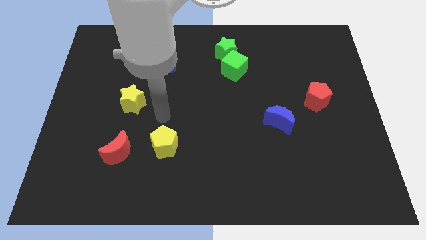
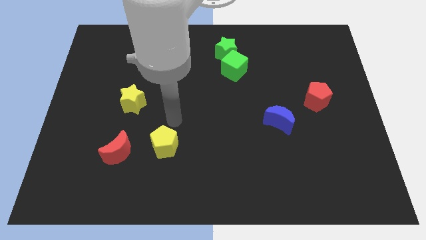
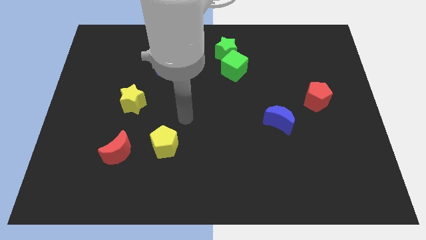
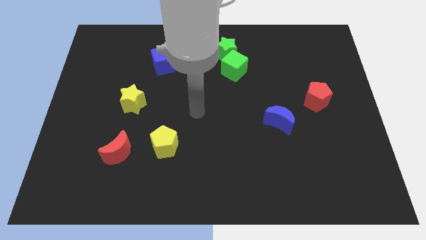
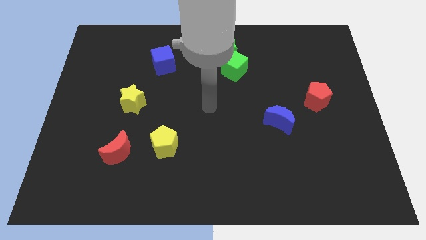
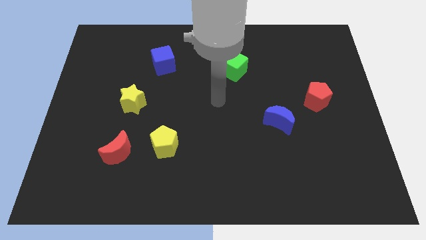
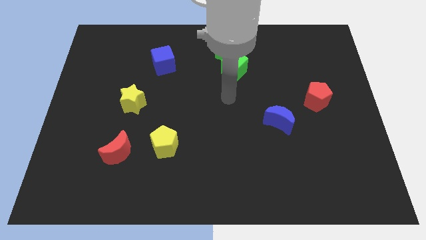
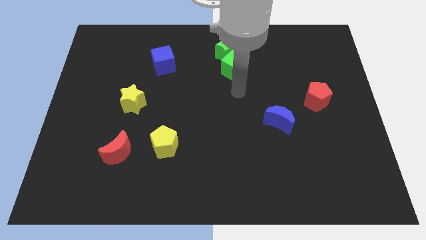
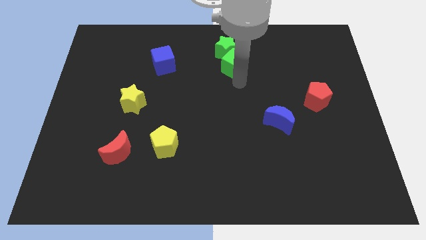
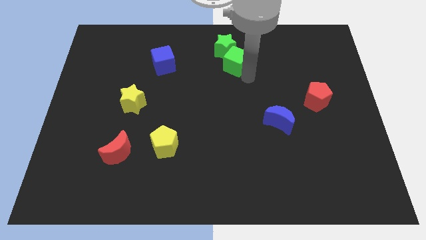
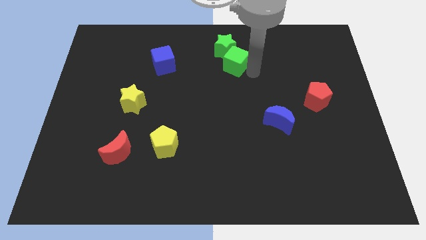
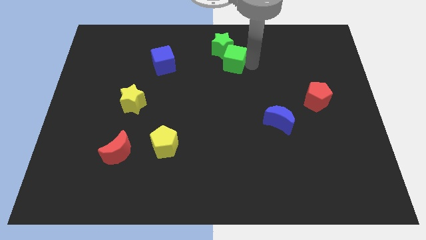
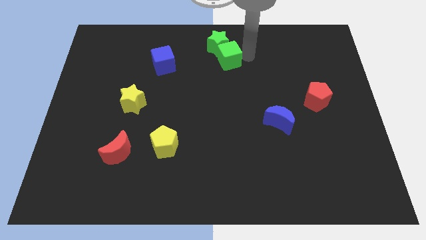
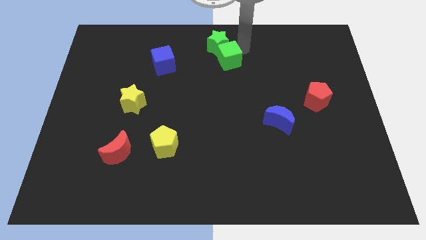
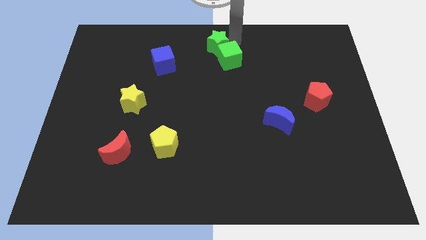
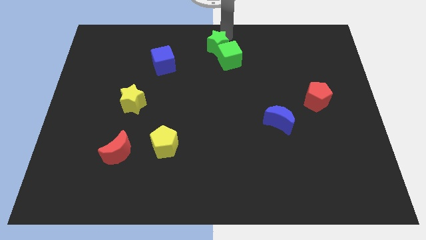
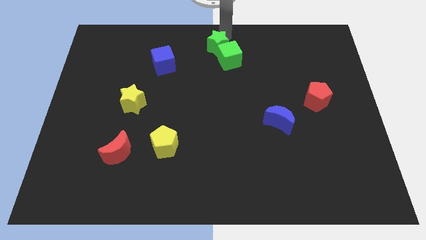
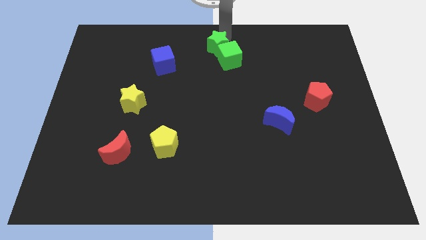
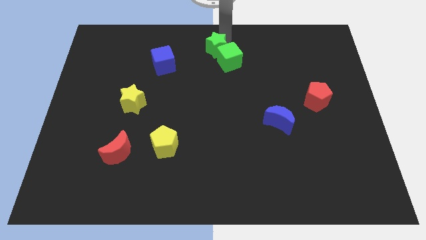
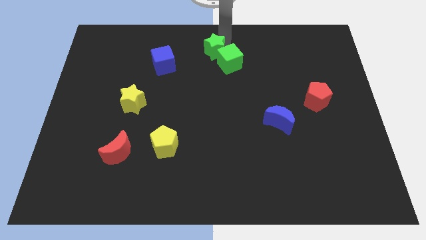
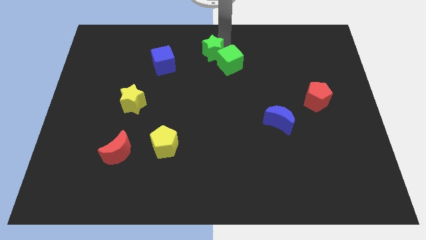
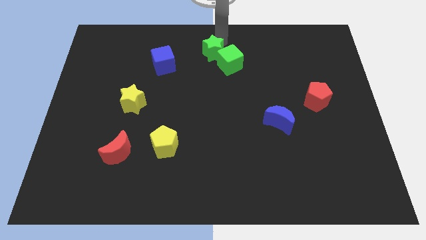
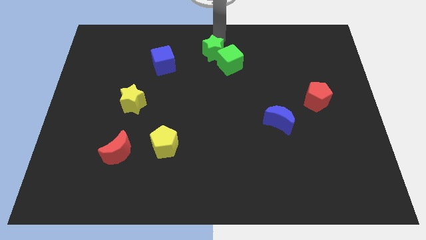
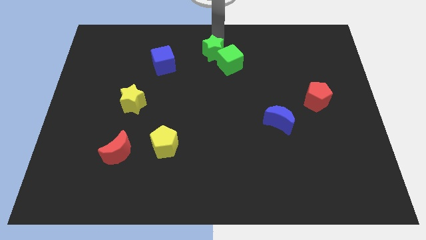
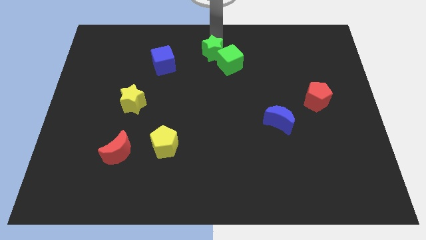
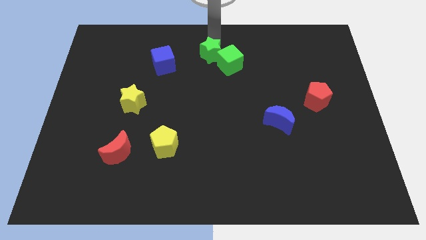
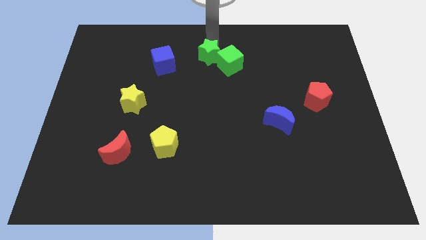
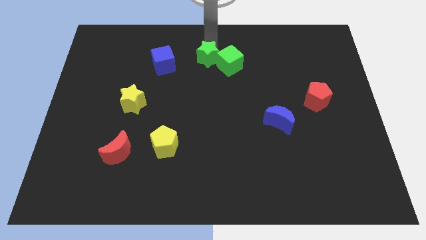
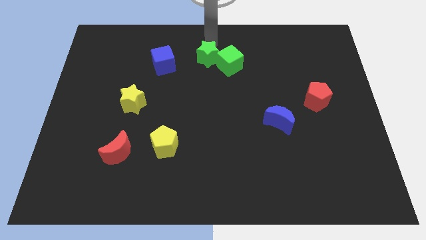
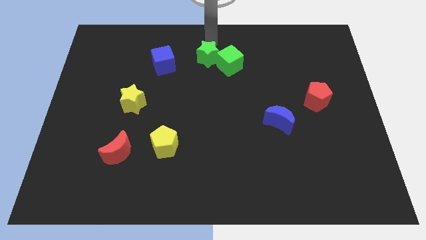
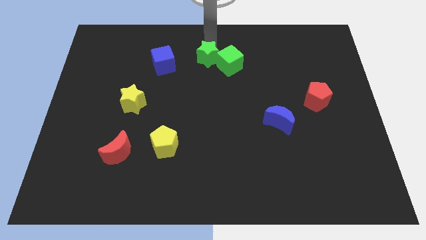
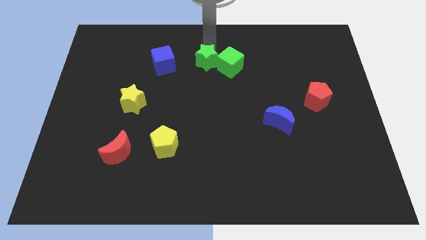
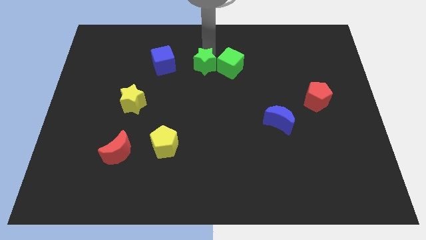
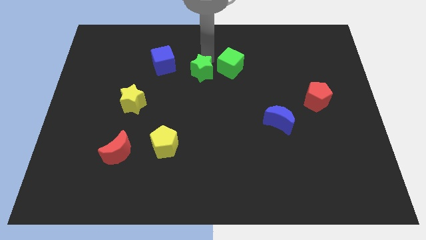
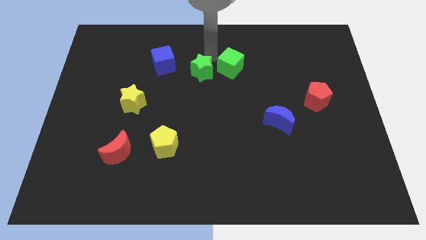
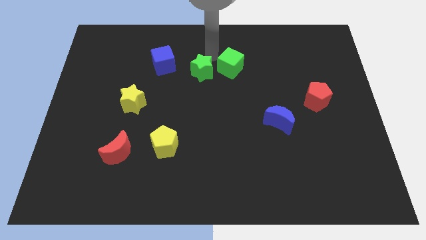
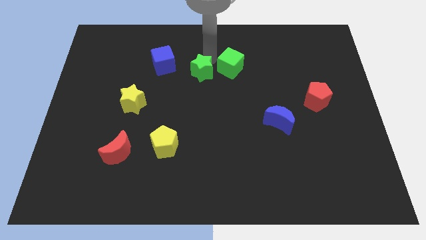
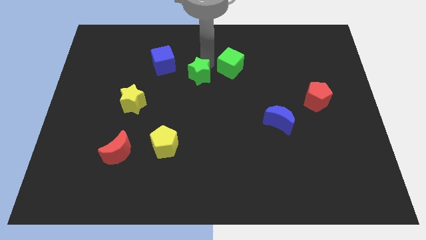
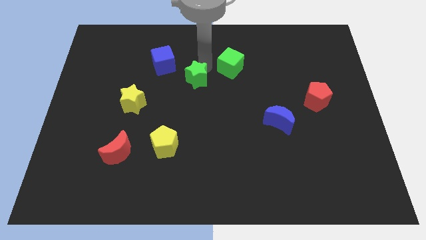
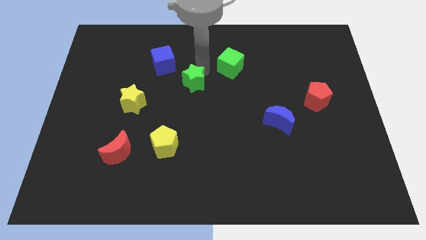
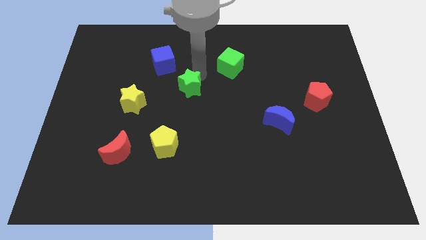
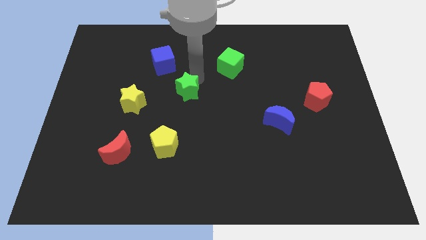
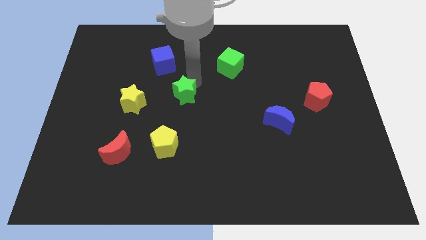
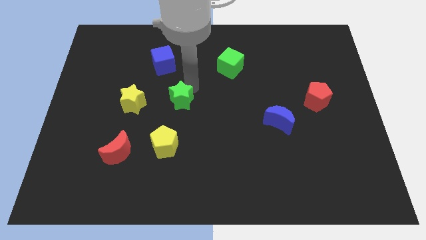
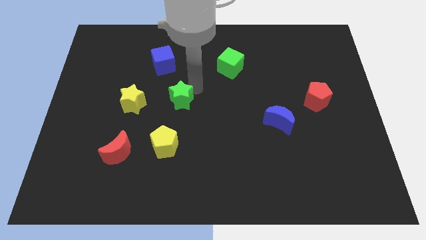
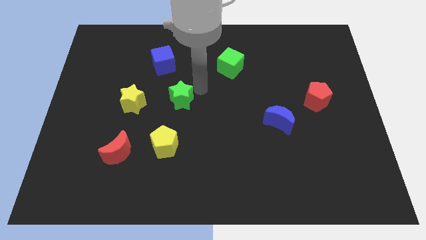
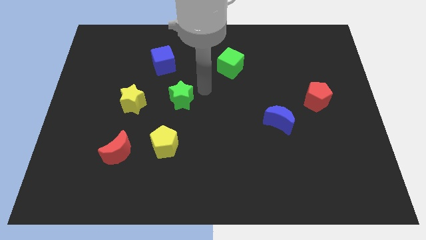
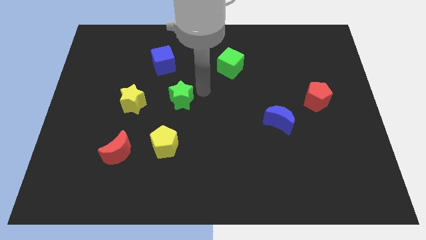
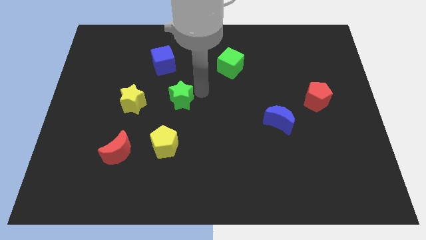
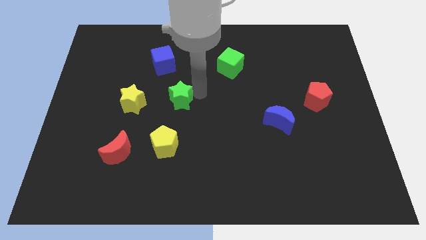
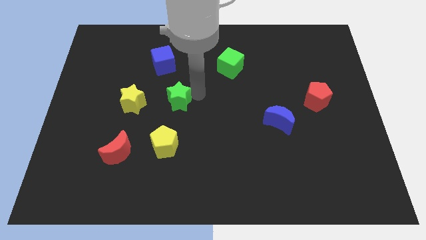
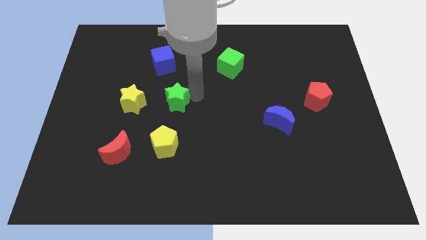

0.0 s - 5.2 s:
push the green star downwards and left diagonally

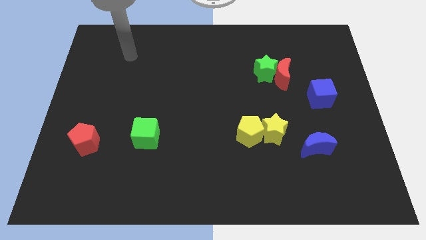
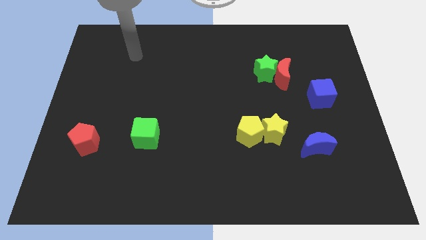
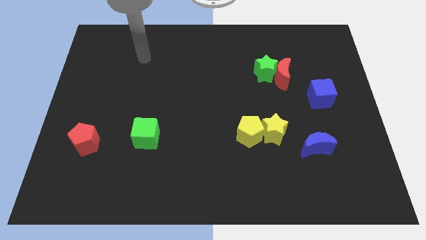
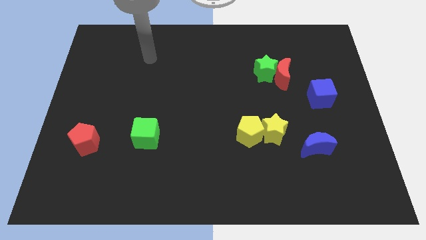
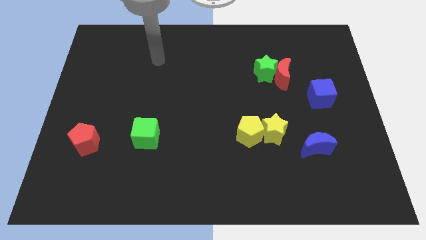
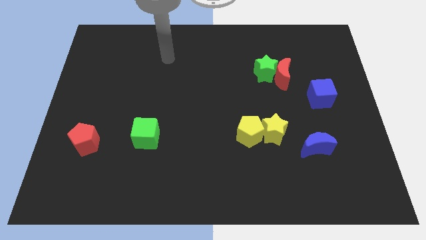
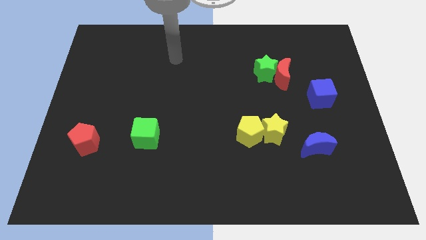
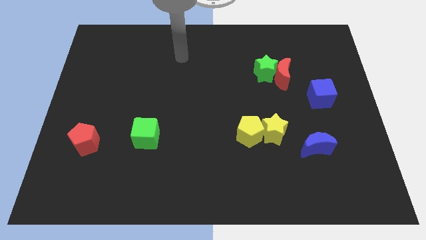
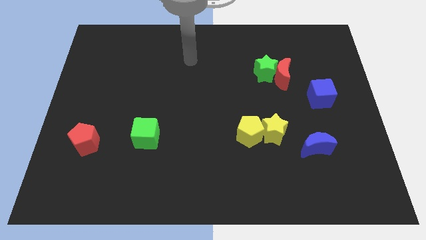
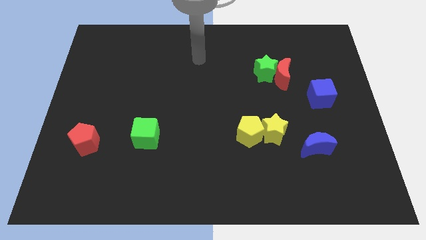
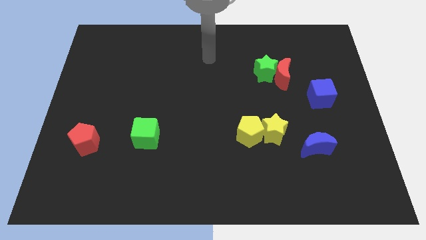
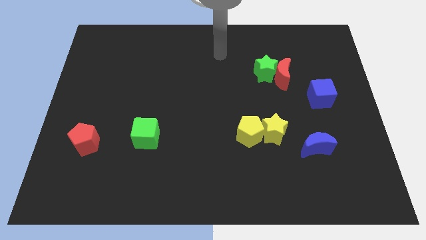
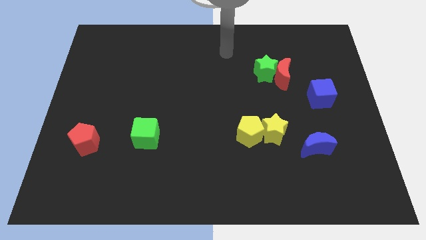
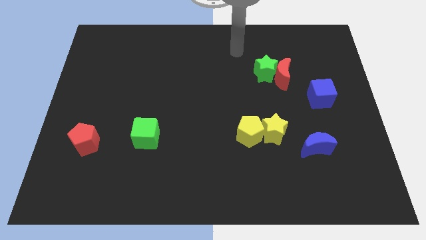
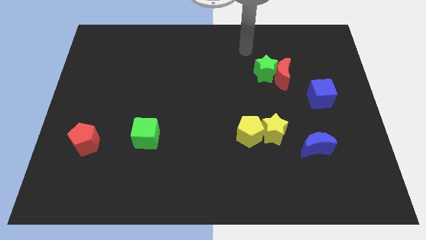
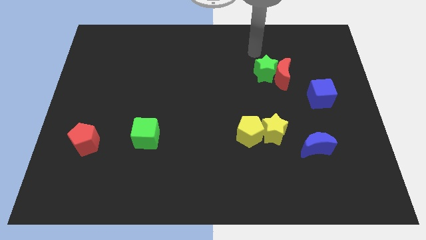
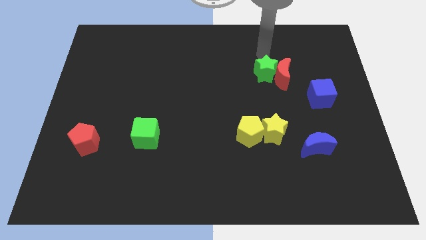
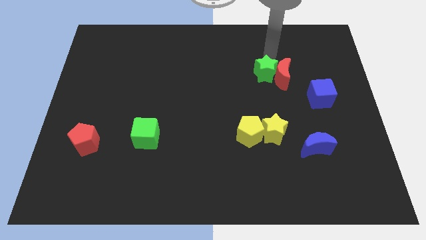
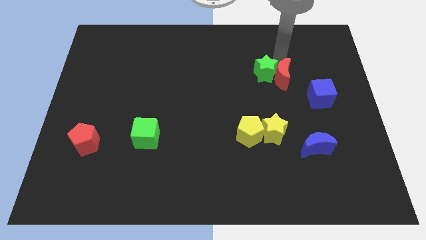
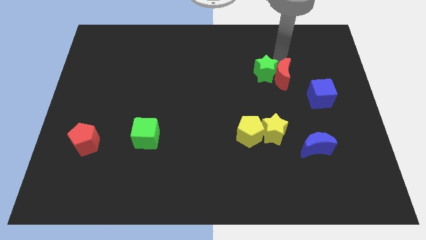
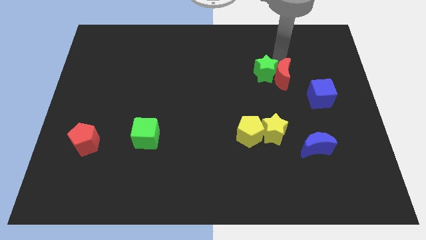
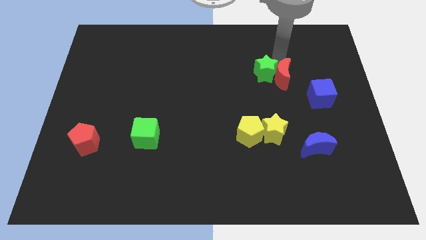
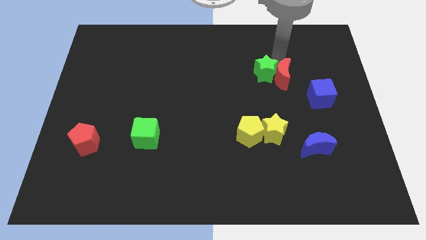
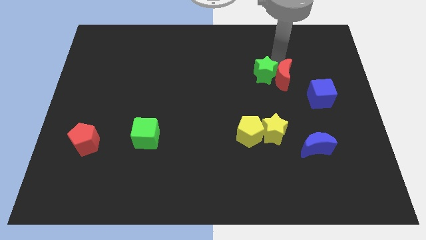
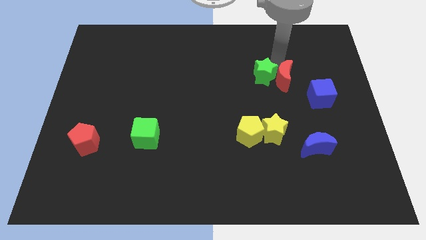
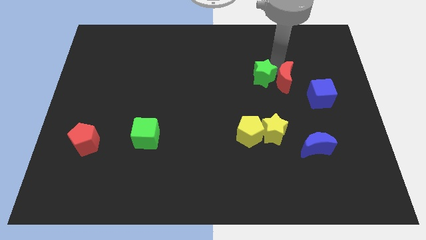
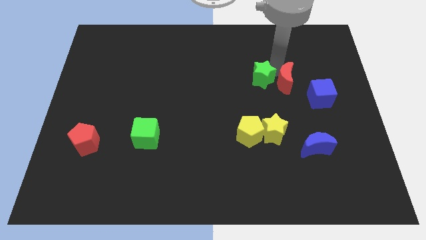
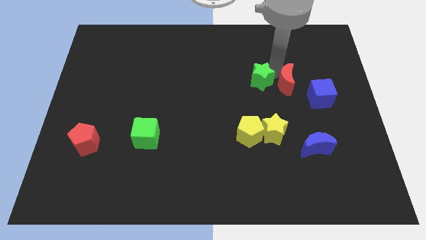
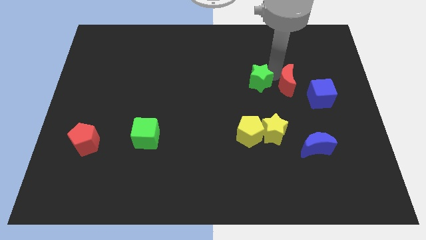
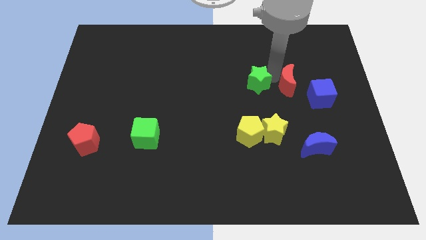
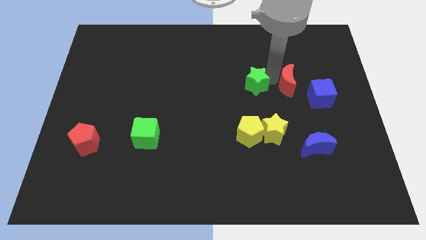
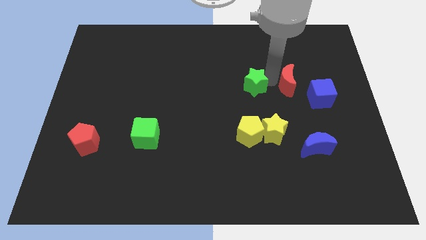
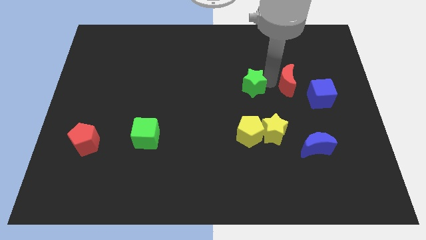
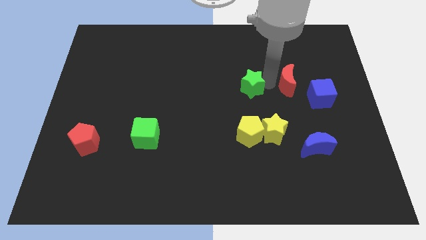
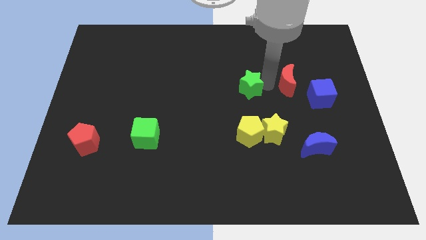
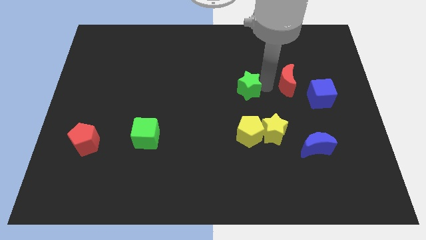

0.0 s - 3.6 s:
move the green star diagonally downwards and to the left a bit
